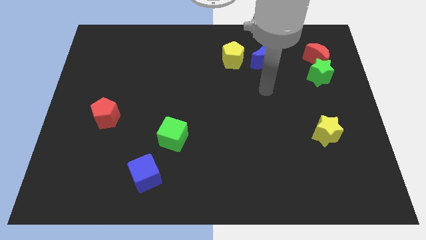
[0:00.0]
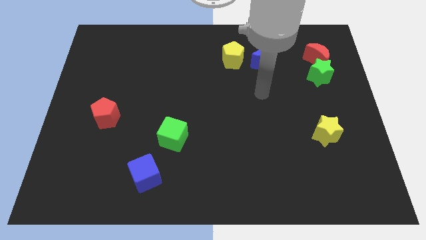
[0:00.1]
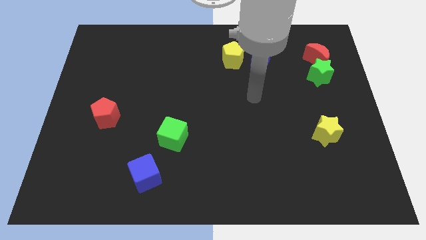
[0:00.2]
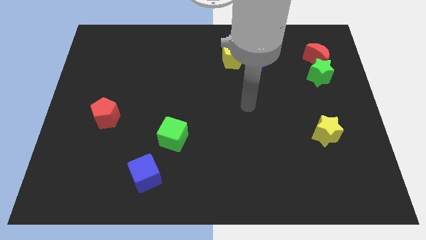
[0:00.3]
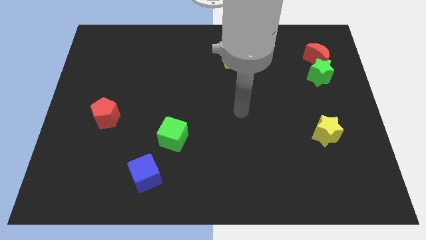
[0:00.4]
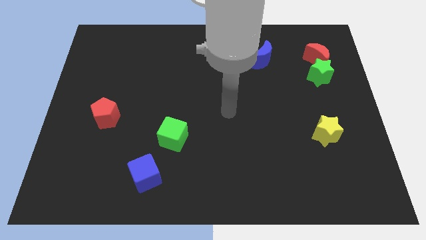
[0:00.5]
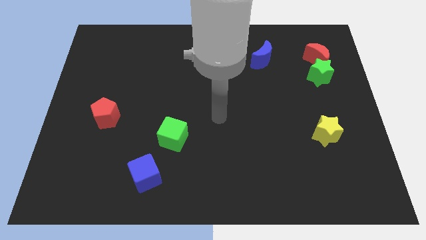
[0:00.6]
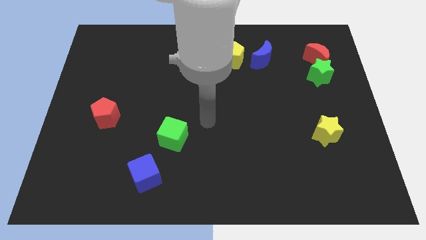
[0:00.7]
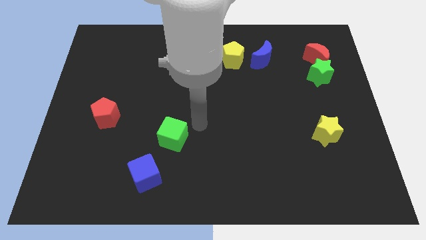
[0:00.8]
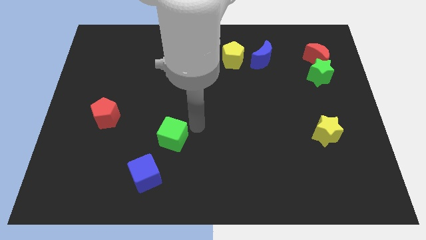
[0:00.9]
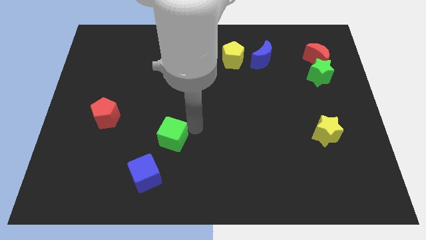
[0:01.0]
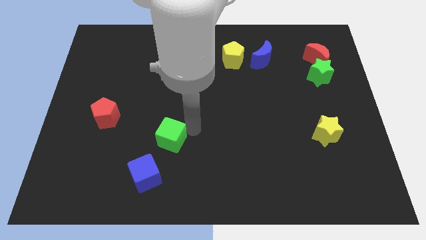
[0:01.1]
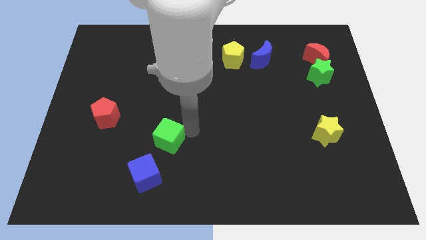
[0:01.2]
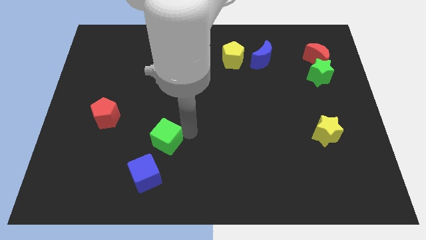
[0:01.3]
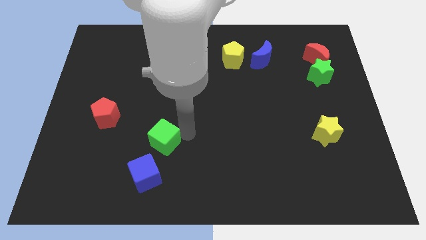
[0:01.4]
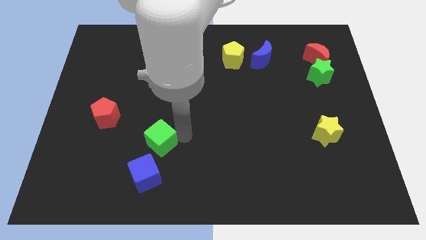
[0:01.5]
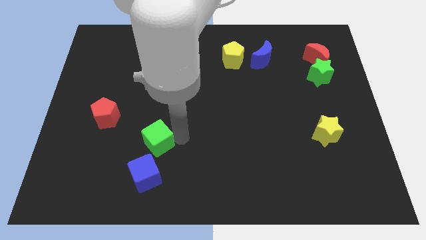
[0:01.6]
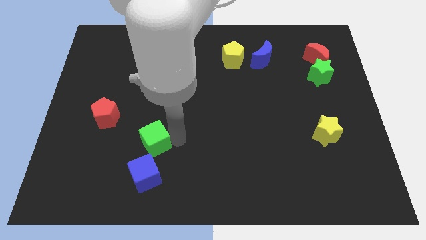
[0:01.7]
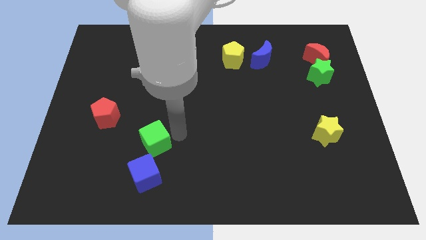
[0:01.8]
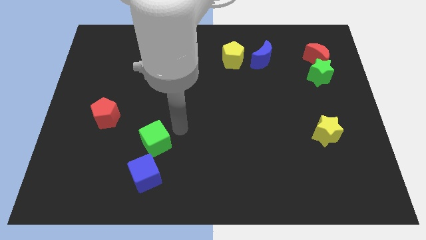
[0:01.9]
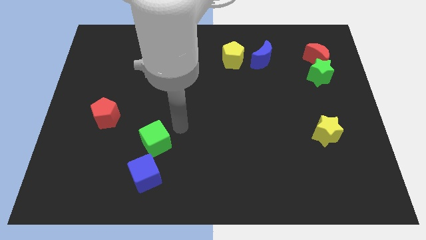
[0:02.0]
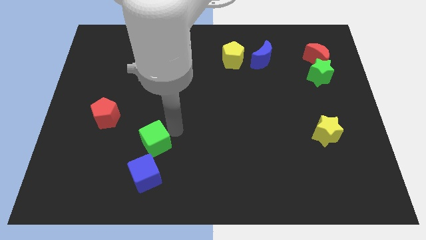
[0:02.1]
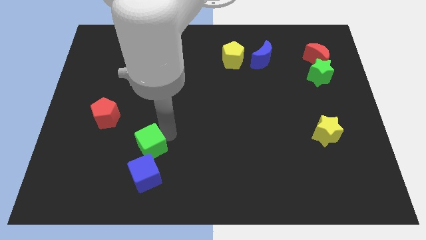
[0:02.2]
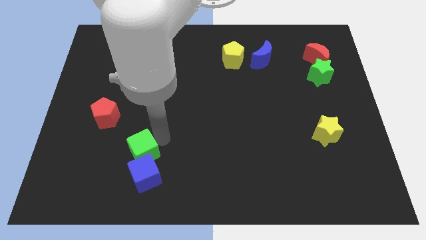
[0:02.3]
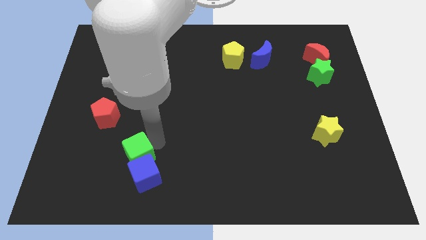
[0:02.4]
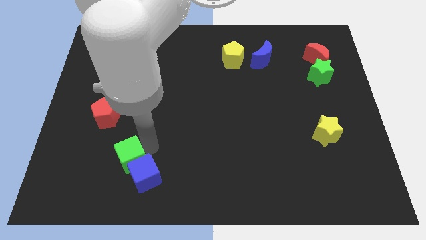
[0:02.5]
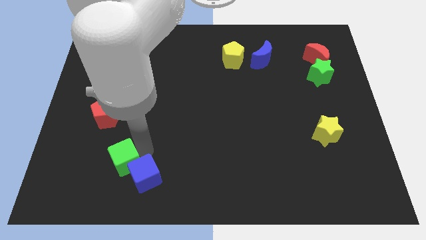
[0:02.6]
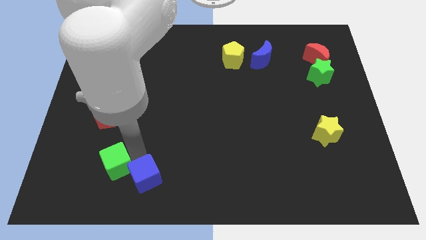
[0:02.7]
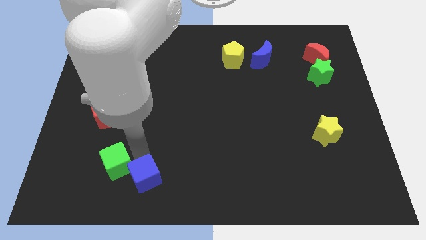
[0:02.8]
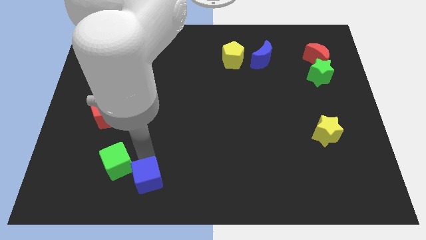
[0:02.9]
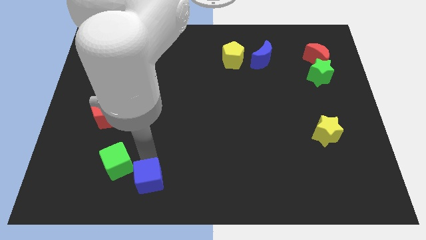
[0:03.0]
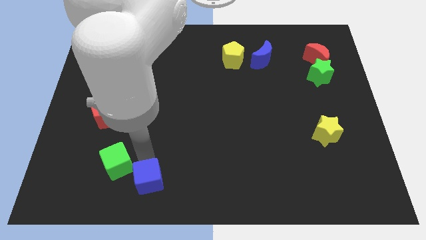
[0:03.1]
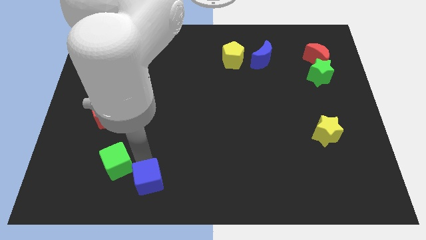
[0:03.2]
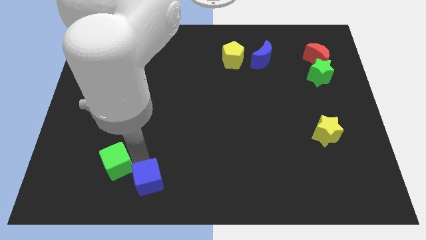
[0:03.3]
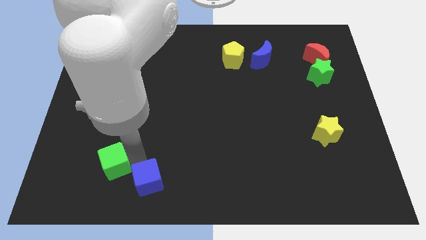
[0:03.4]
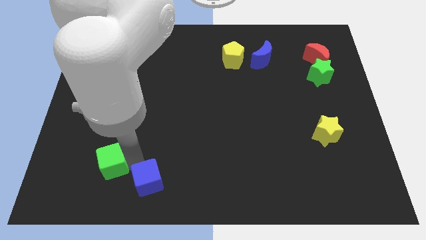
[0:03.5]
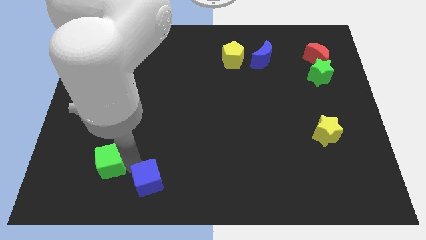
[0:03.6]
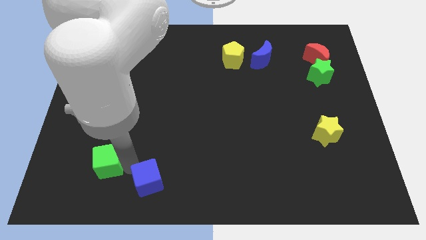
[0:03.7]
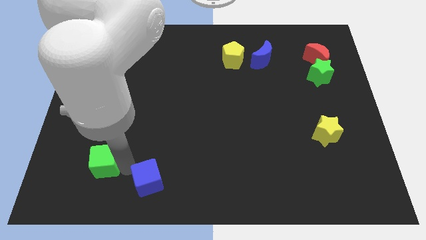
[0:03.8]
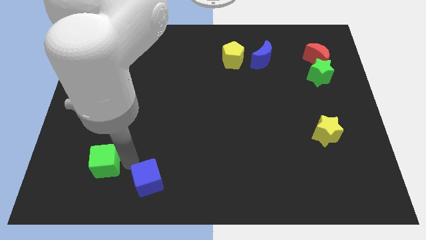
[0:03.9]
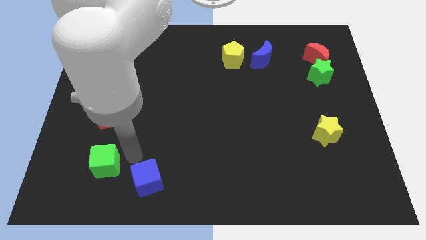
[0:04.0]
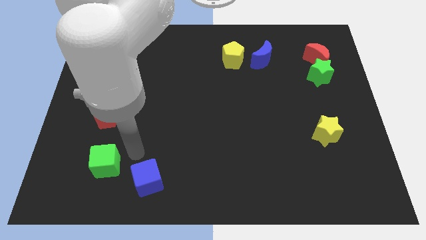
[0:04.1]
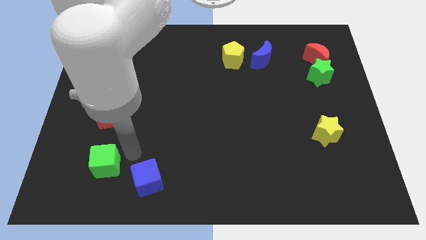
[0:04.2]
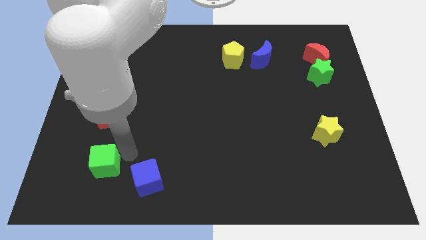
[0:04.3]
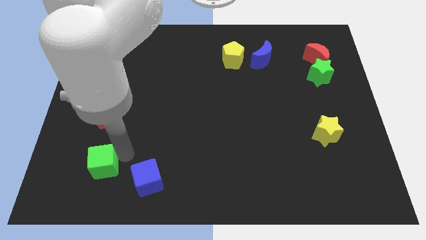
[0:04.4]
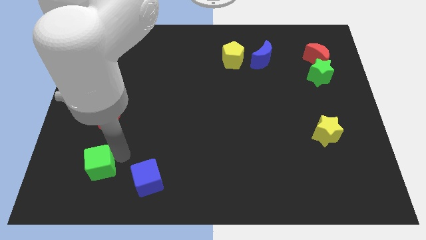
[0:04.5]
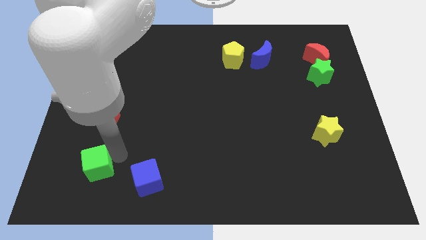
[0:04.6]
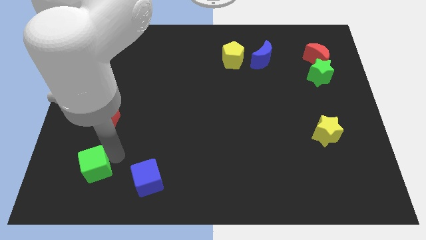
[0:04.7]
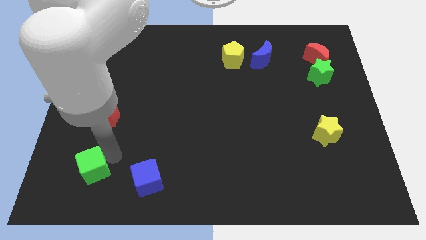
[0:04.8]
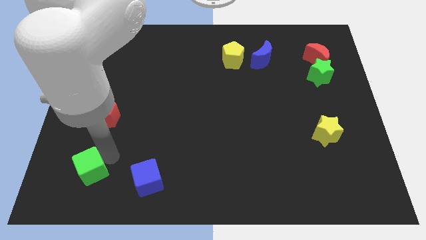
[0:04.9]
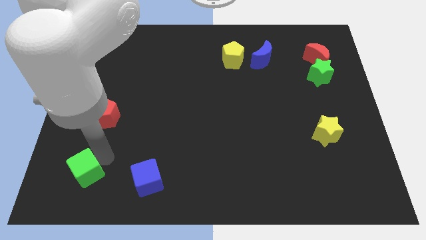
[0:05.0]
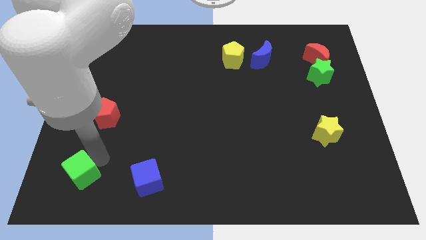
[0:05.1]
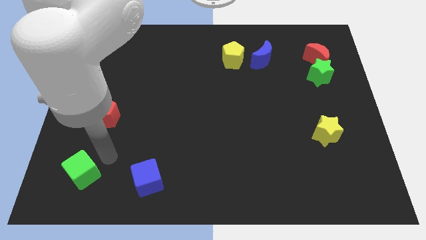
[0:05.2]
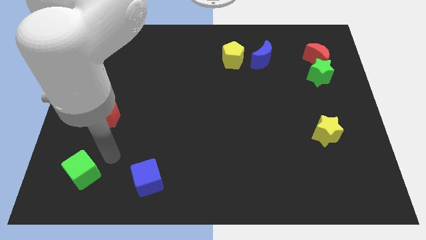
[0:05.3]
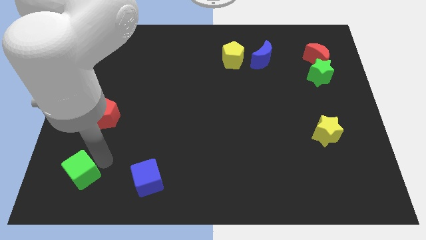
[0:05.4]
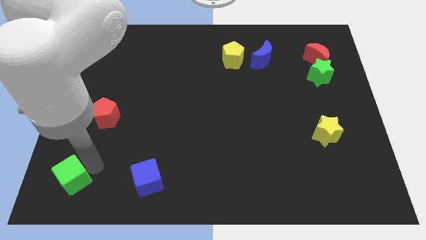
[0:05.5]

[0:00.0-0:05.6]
put the green cube to the bottom left corner

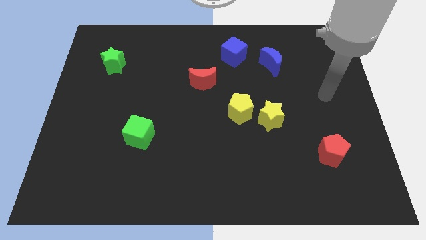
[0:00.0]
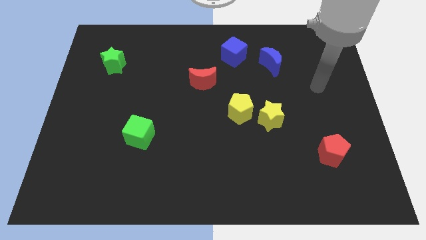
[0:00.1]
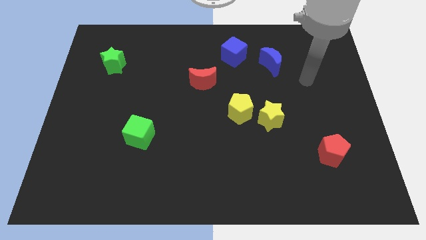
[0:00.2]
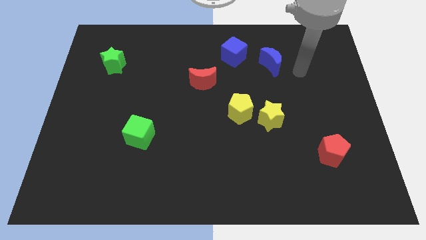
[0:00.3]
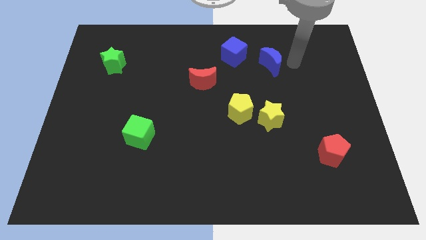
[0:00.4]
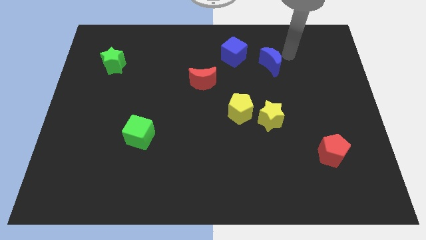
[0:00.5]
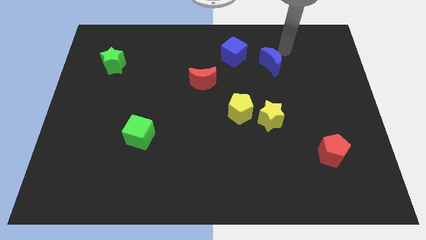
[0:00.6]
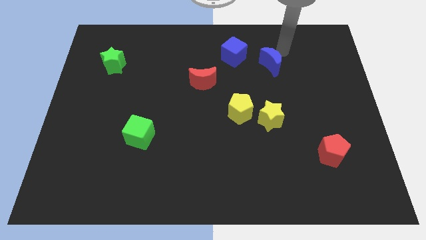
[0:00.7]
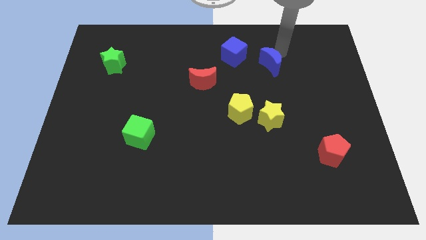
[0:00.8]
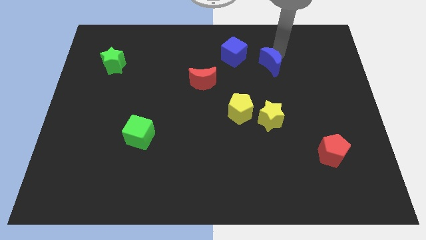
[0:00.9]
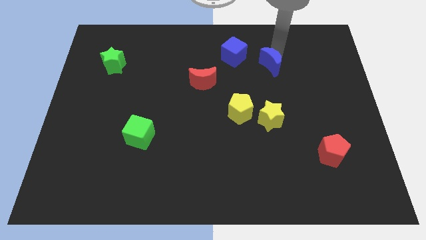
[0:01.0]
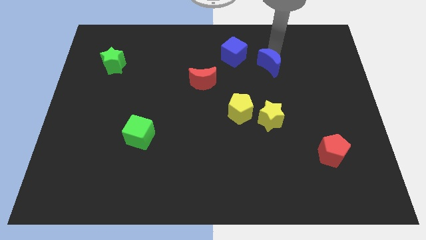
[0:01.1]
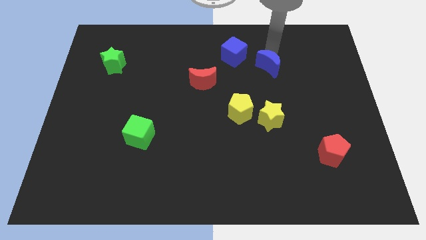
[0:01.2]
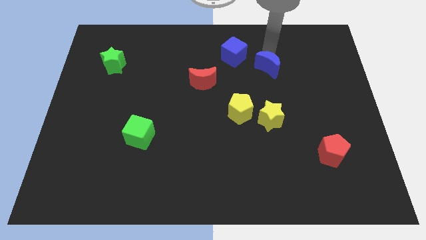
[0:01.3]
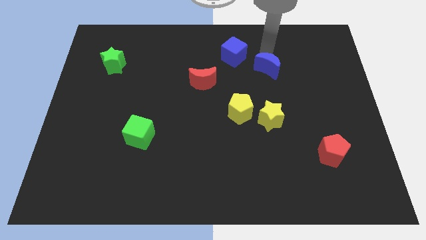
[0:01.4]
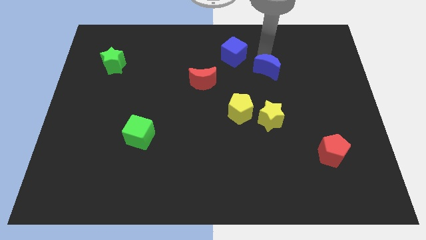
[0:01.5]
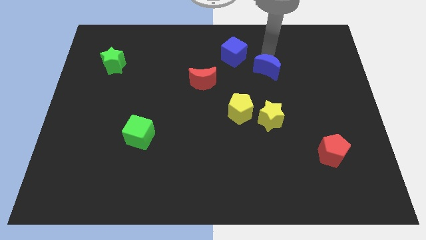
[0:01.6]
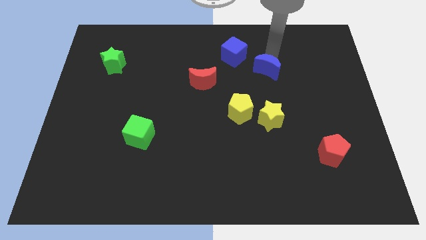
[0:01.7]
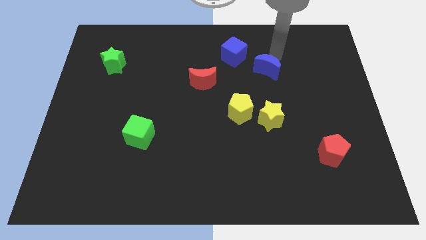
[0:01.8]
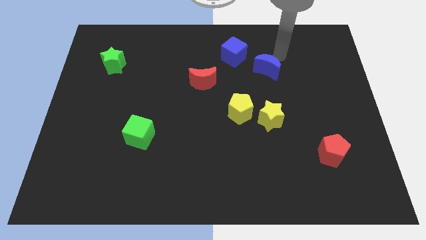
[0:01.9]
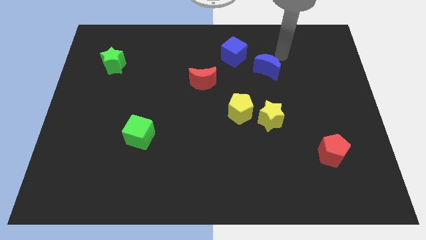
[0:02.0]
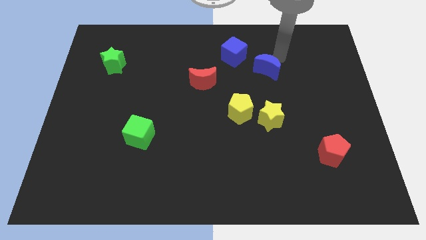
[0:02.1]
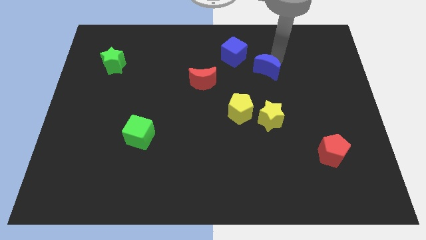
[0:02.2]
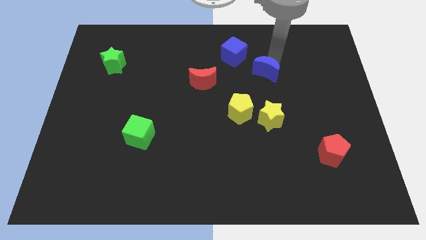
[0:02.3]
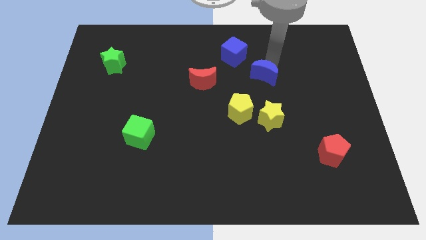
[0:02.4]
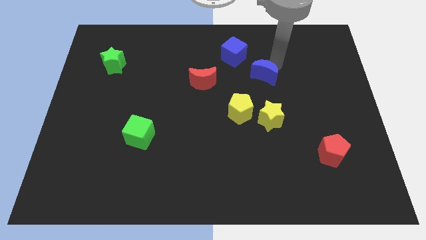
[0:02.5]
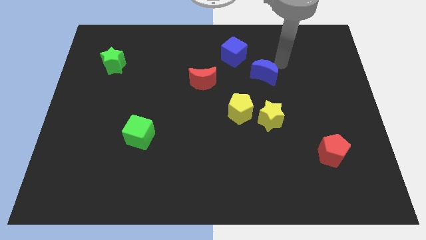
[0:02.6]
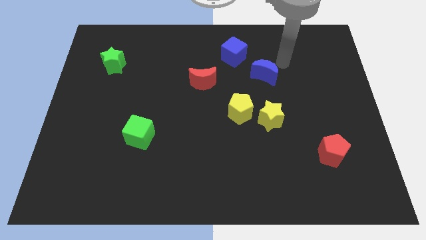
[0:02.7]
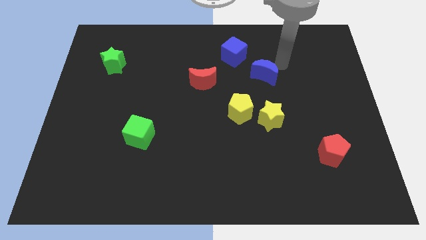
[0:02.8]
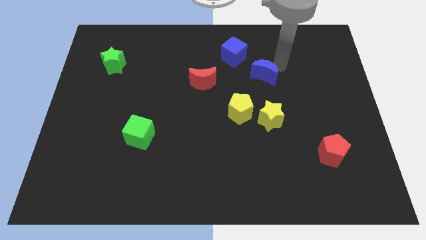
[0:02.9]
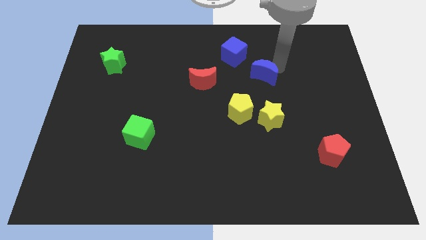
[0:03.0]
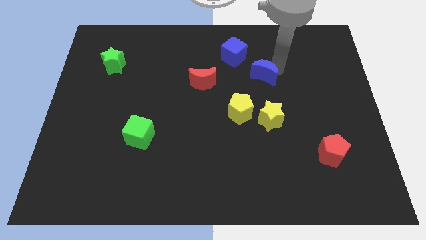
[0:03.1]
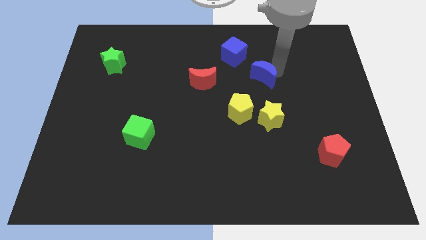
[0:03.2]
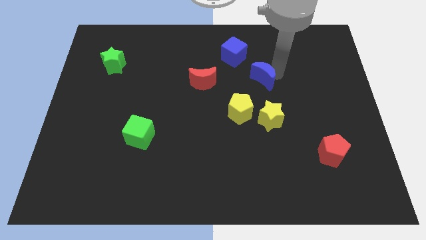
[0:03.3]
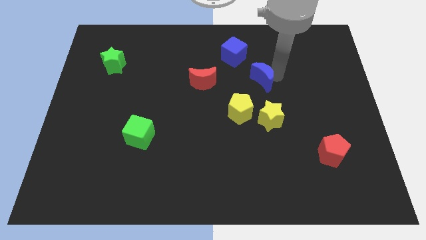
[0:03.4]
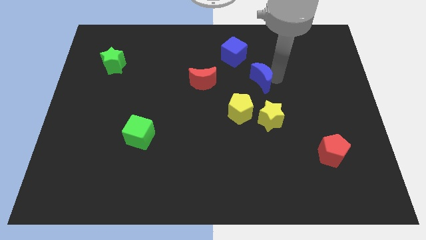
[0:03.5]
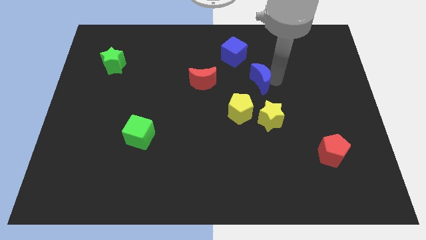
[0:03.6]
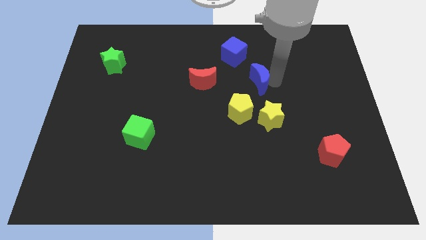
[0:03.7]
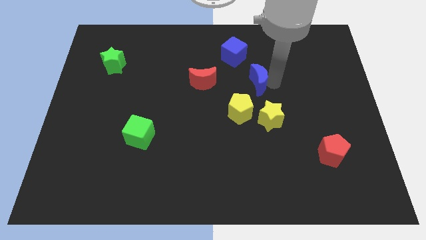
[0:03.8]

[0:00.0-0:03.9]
push the blue moon to the middle
